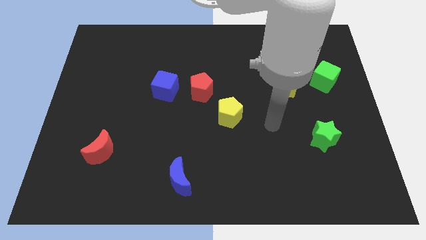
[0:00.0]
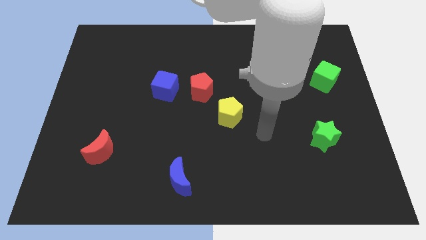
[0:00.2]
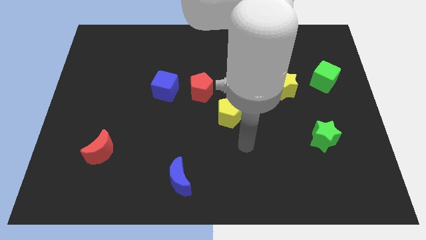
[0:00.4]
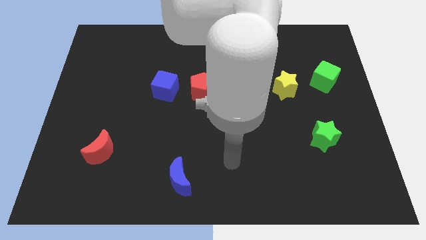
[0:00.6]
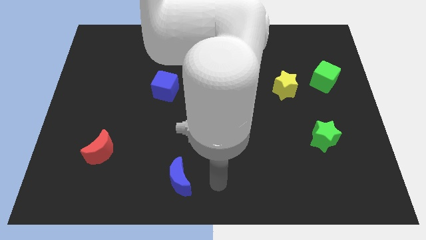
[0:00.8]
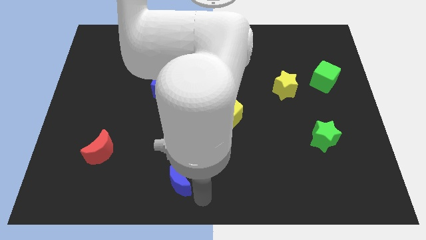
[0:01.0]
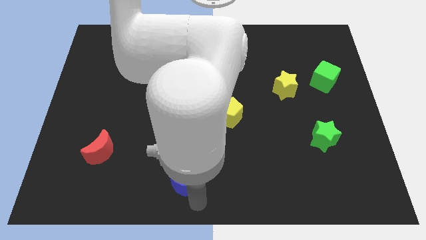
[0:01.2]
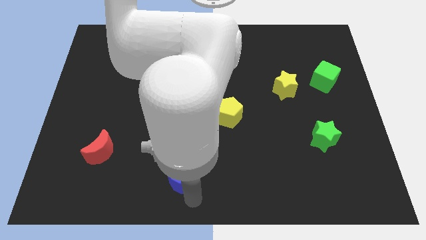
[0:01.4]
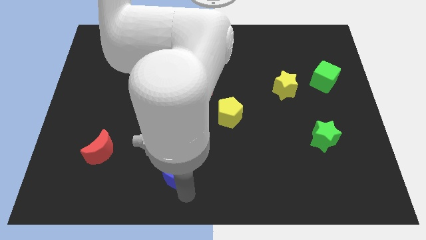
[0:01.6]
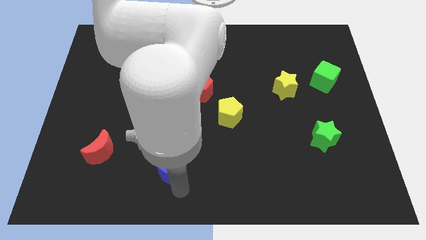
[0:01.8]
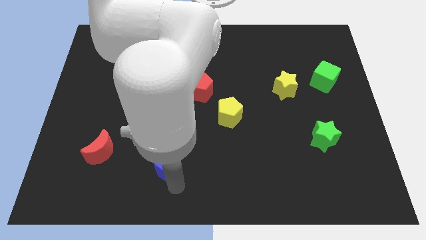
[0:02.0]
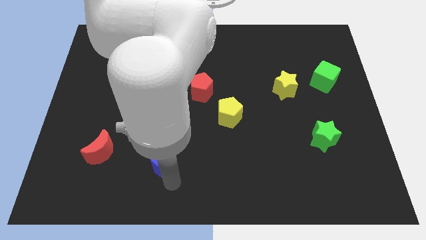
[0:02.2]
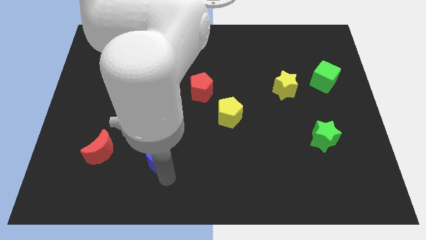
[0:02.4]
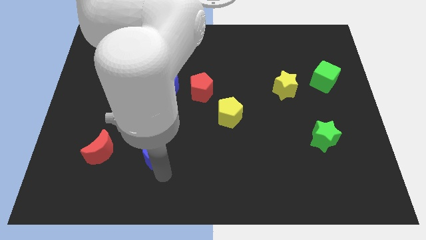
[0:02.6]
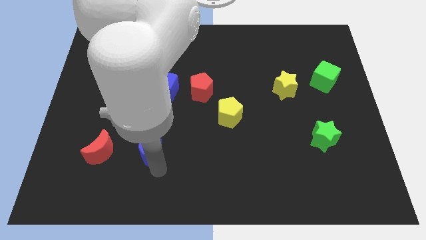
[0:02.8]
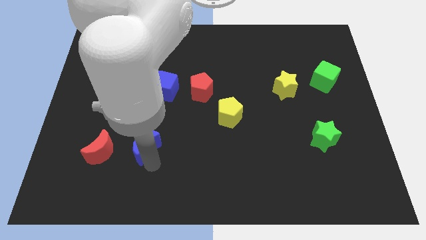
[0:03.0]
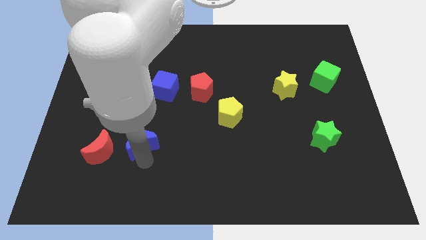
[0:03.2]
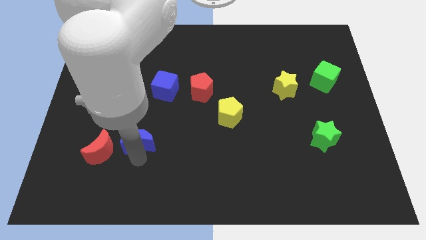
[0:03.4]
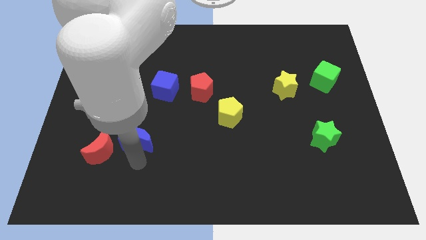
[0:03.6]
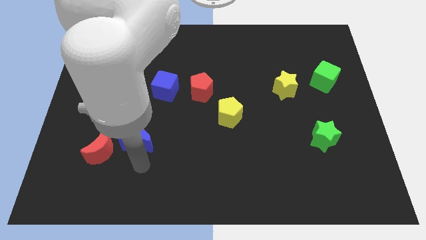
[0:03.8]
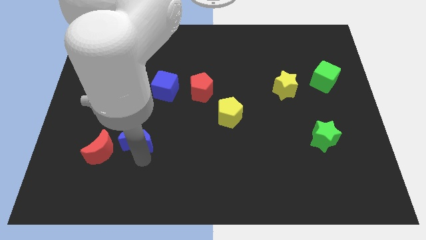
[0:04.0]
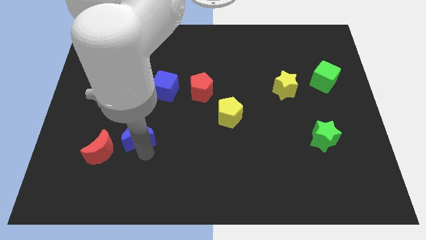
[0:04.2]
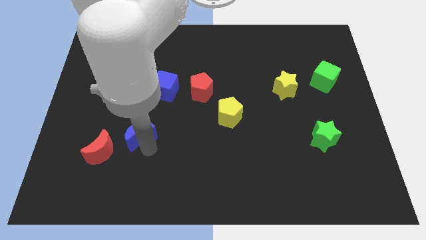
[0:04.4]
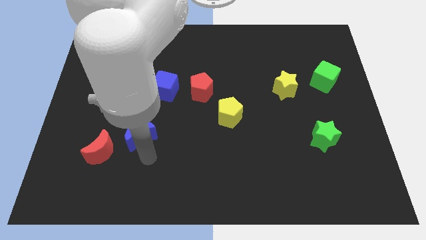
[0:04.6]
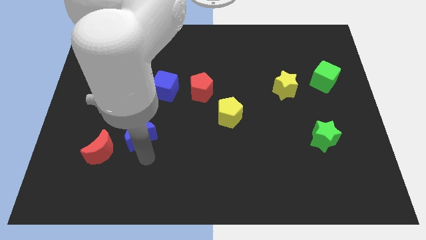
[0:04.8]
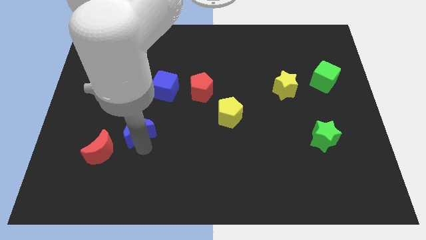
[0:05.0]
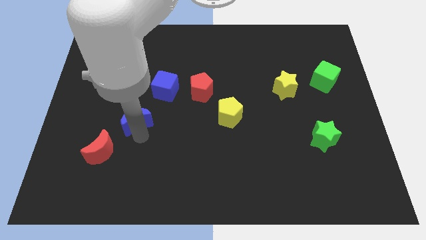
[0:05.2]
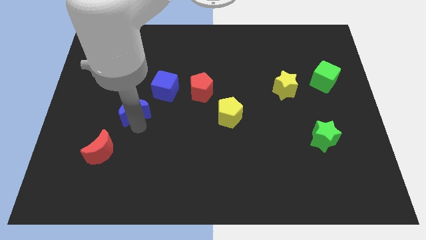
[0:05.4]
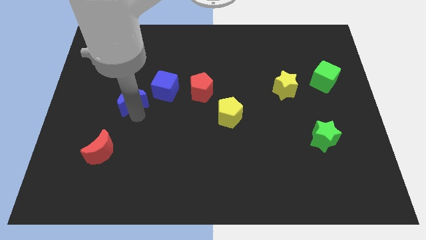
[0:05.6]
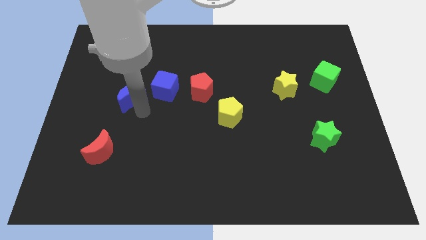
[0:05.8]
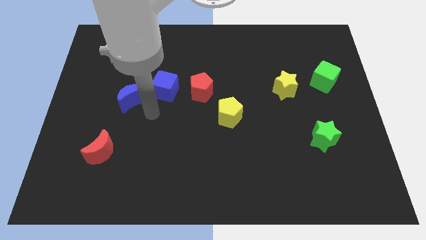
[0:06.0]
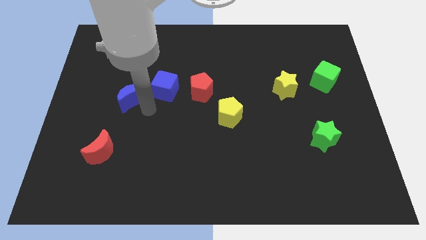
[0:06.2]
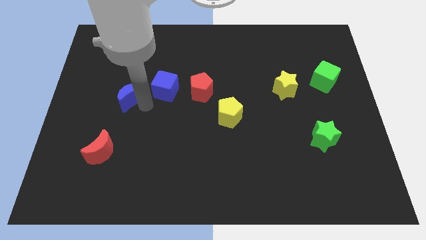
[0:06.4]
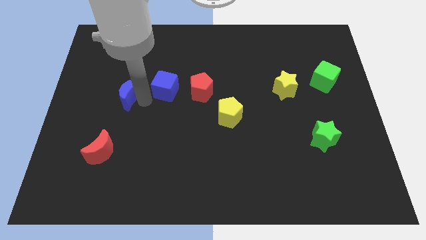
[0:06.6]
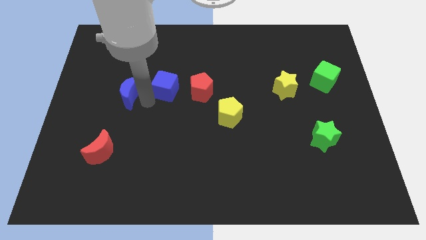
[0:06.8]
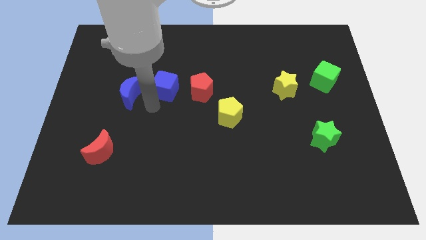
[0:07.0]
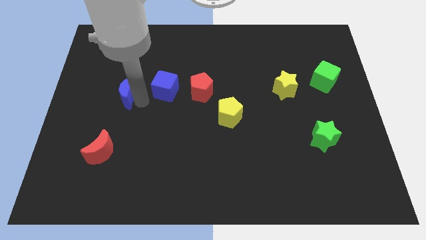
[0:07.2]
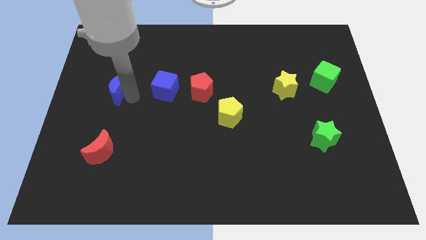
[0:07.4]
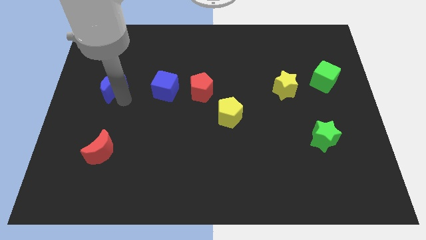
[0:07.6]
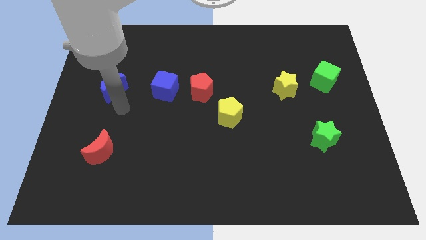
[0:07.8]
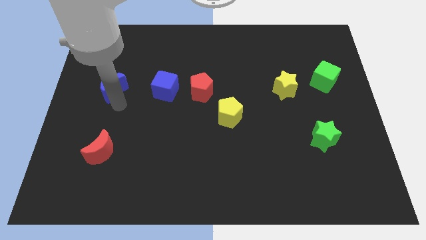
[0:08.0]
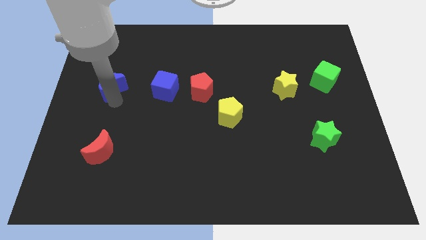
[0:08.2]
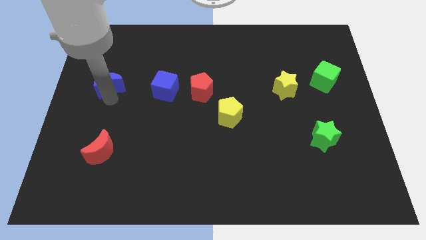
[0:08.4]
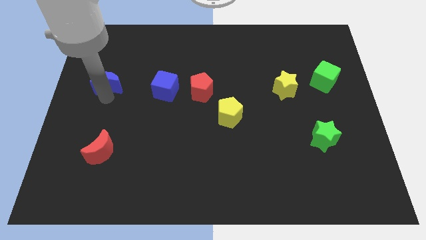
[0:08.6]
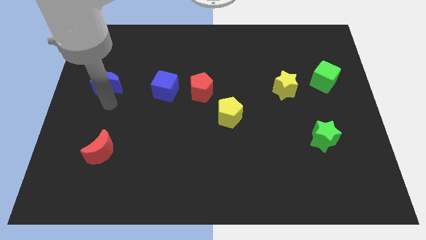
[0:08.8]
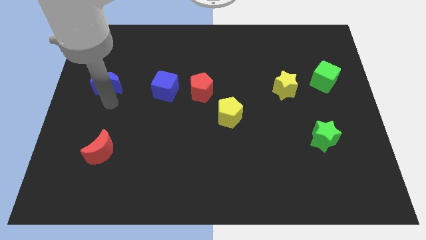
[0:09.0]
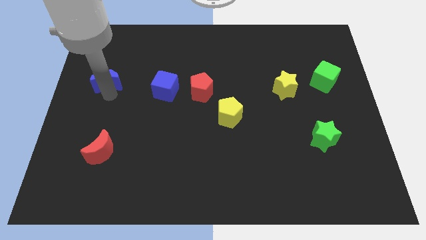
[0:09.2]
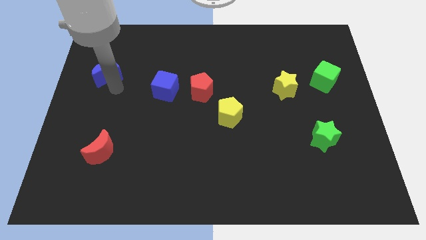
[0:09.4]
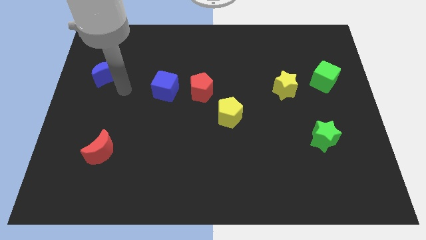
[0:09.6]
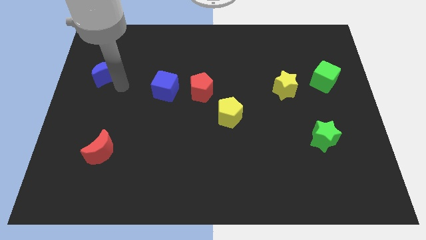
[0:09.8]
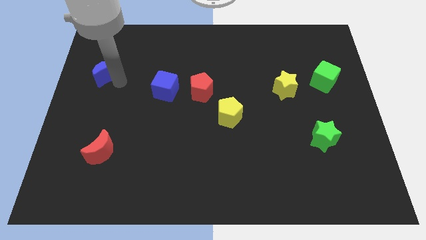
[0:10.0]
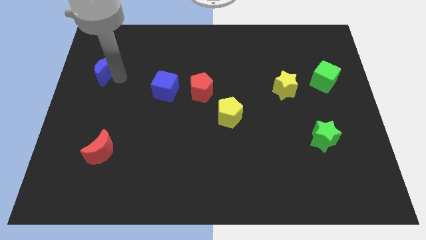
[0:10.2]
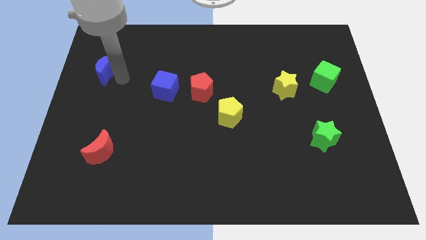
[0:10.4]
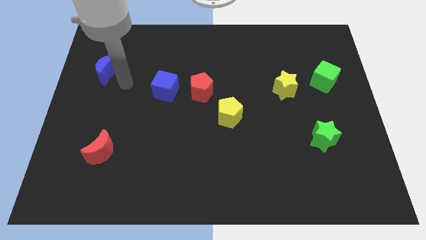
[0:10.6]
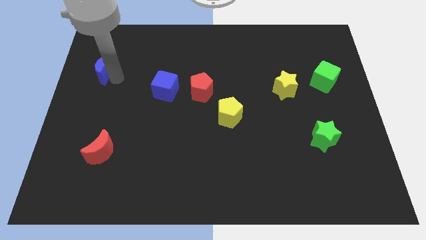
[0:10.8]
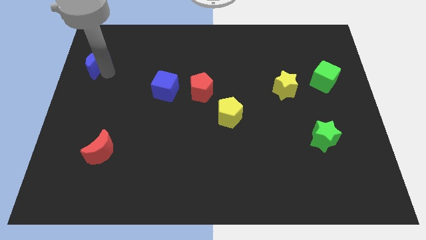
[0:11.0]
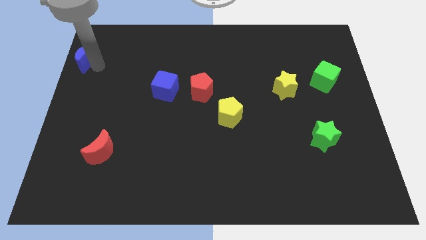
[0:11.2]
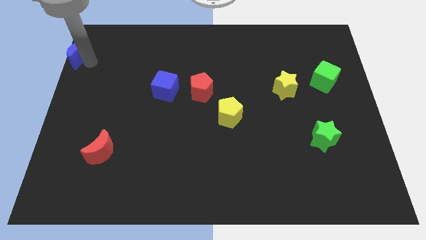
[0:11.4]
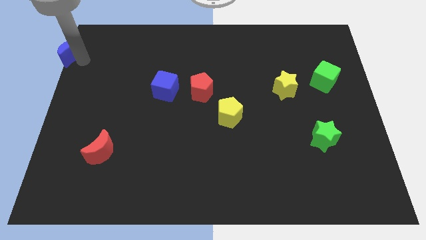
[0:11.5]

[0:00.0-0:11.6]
slide the blue moon to the top left corner

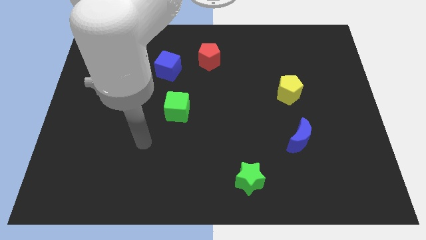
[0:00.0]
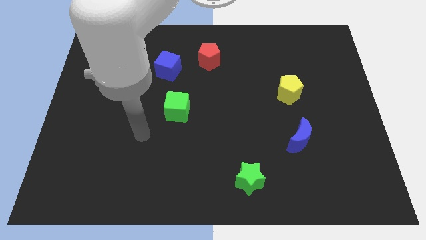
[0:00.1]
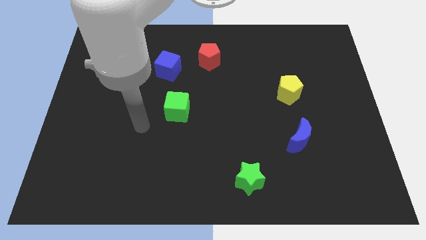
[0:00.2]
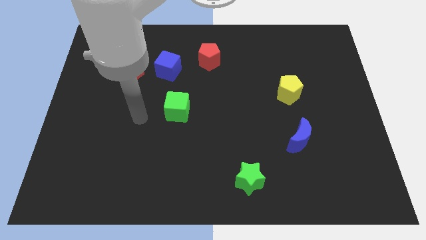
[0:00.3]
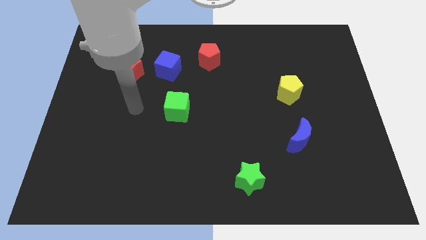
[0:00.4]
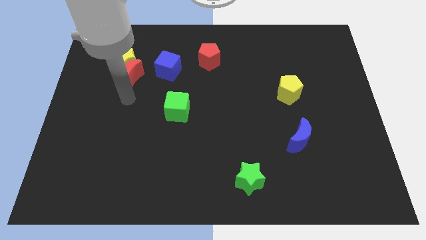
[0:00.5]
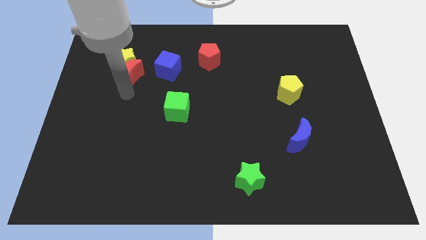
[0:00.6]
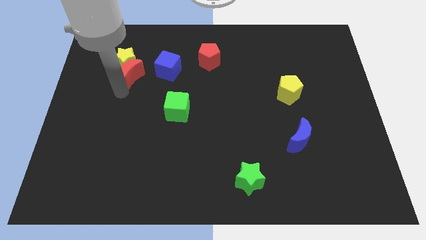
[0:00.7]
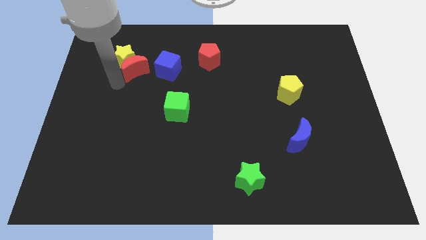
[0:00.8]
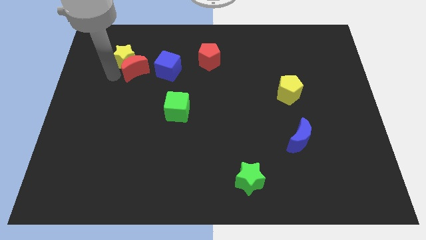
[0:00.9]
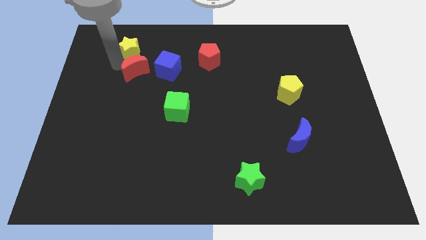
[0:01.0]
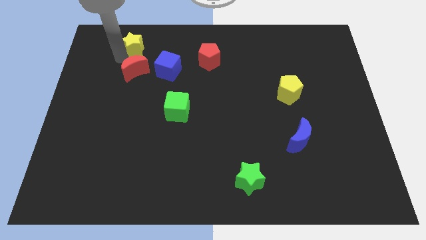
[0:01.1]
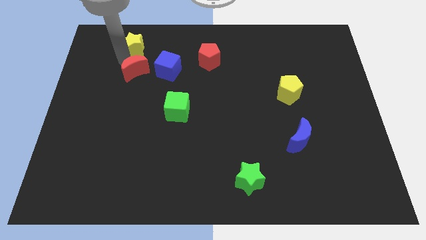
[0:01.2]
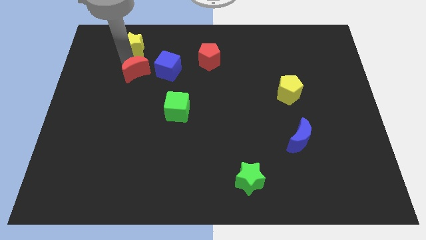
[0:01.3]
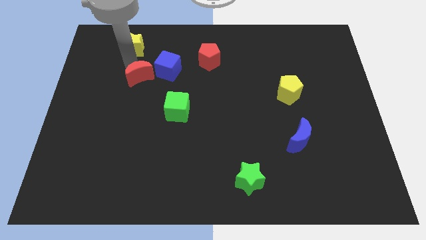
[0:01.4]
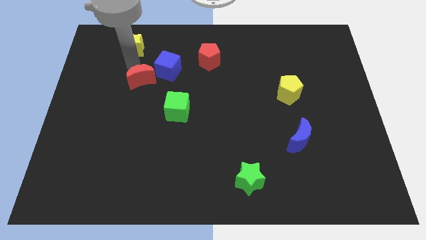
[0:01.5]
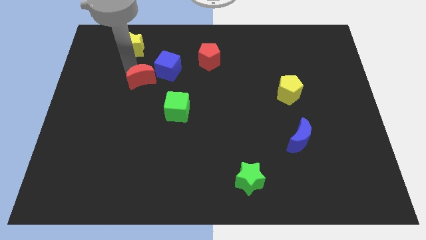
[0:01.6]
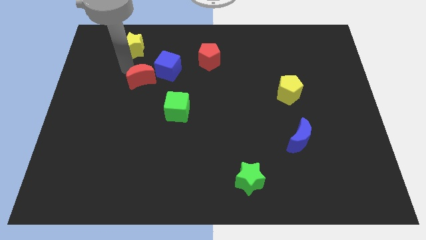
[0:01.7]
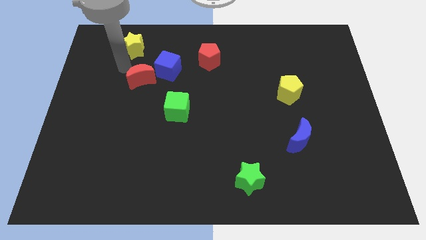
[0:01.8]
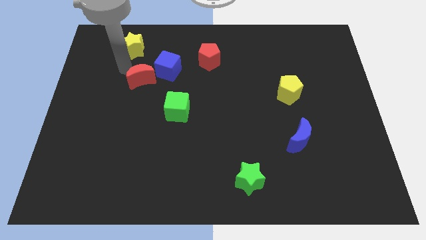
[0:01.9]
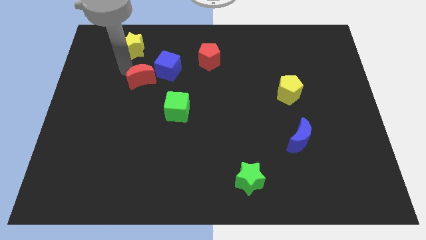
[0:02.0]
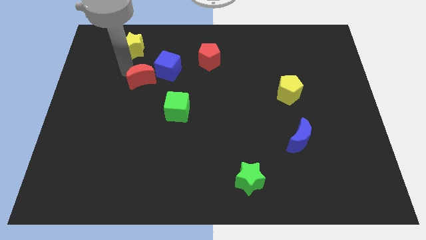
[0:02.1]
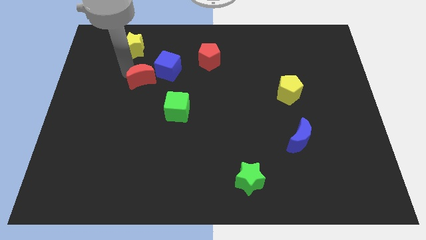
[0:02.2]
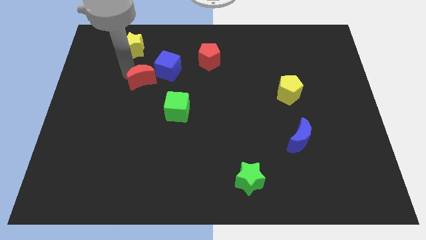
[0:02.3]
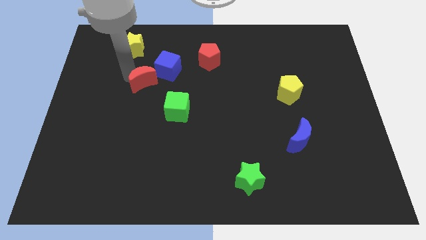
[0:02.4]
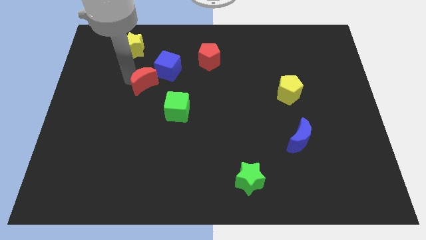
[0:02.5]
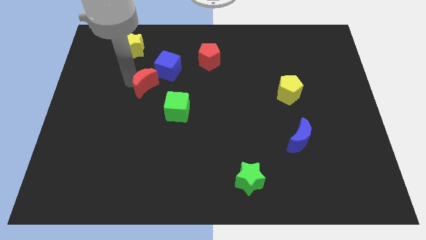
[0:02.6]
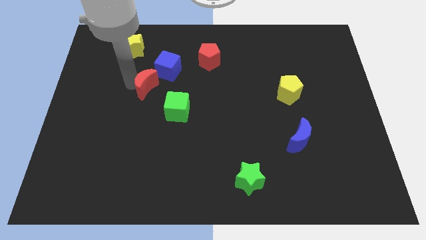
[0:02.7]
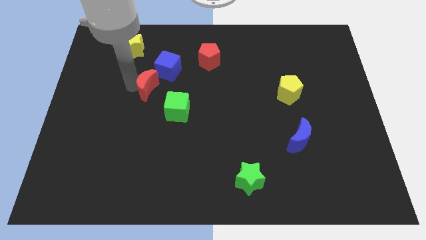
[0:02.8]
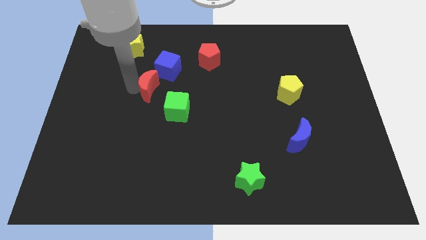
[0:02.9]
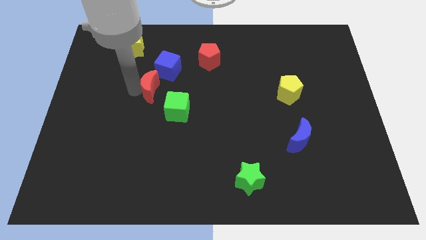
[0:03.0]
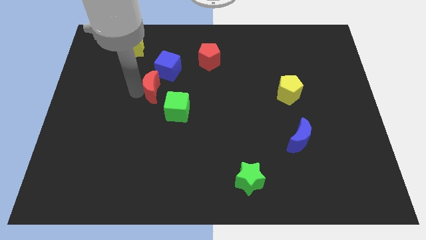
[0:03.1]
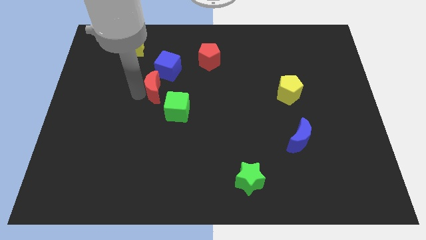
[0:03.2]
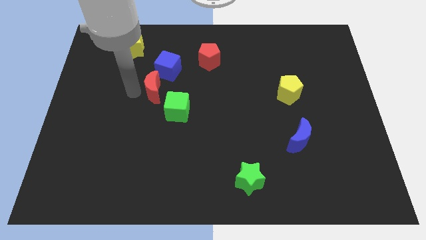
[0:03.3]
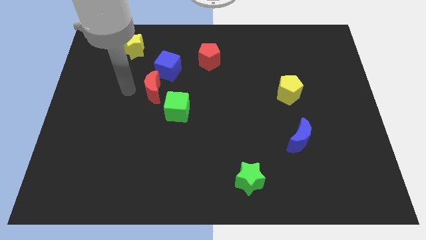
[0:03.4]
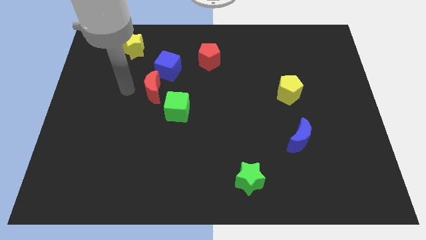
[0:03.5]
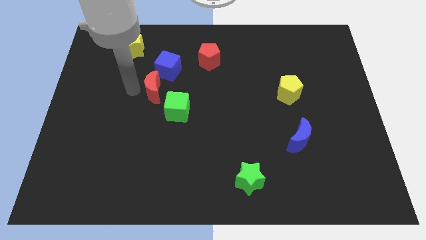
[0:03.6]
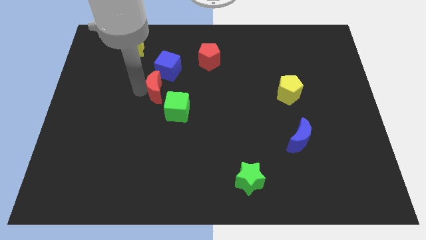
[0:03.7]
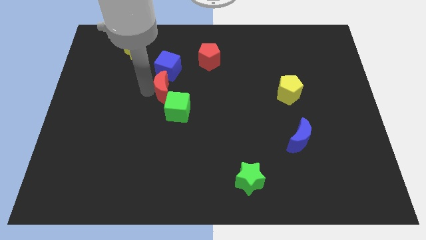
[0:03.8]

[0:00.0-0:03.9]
push the red moon to the middle of the board
